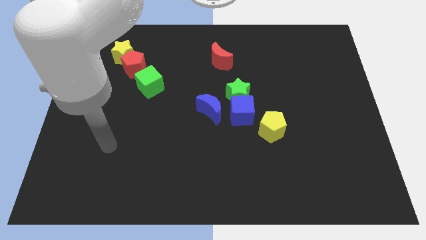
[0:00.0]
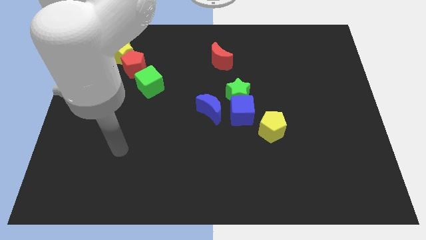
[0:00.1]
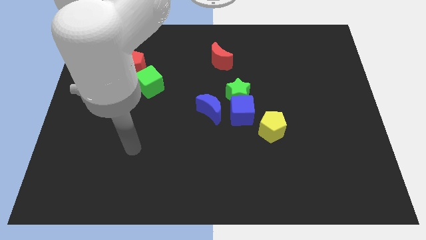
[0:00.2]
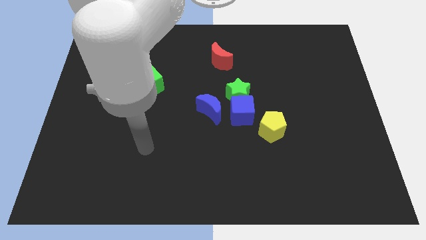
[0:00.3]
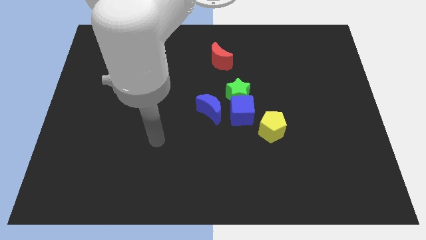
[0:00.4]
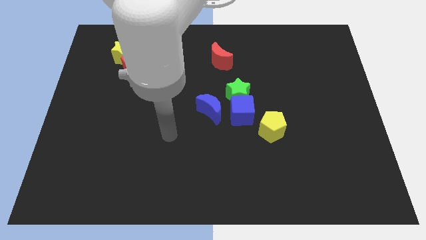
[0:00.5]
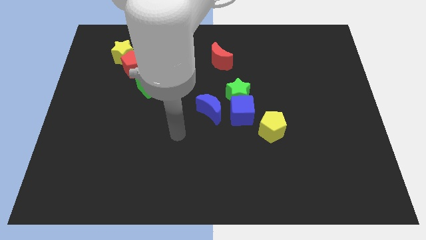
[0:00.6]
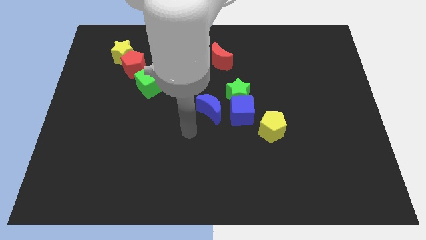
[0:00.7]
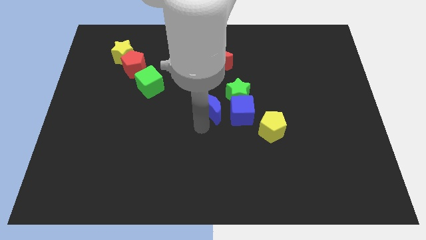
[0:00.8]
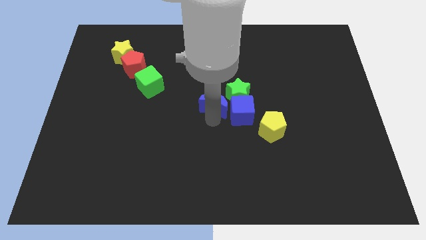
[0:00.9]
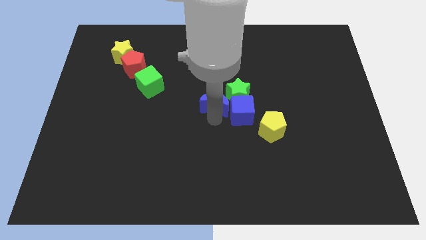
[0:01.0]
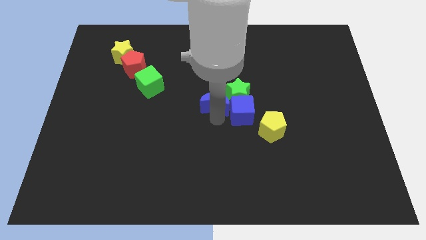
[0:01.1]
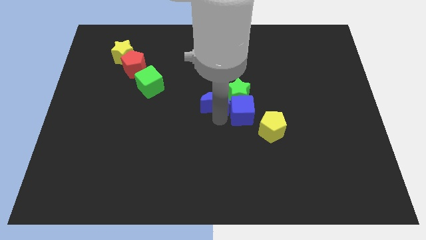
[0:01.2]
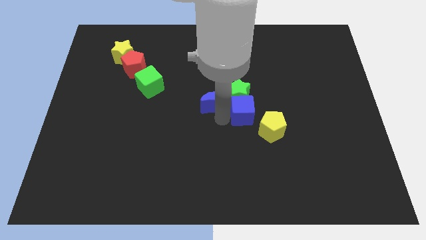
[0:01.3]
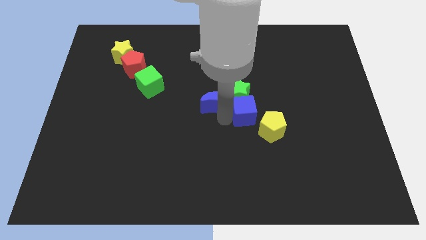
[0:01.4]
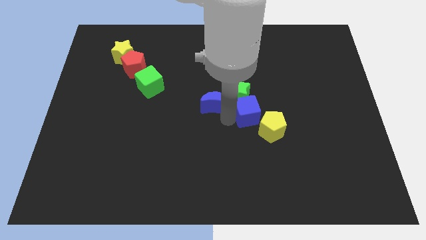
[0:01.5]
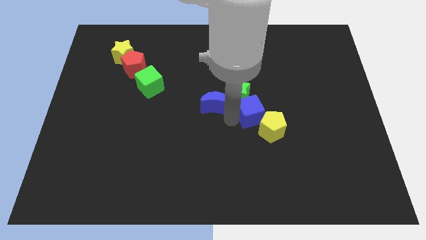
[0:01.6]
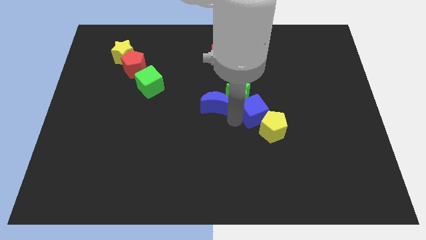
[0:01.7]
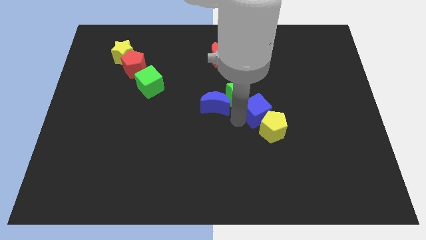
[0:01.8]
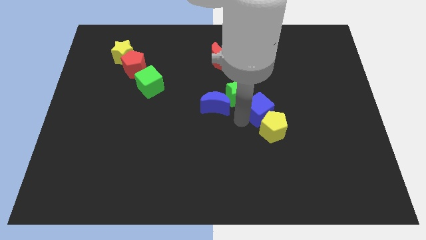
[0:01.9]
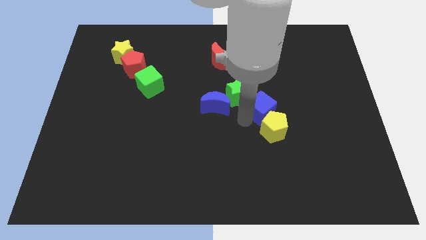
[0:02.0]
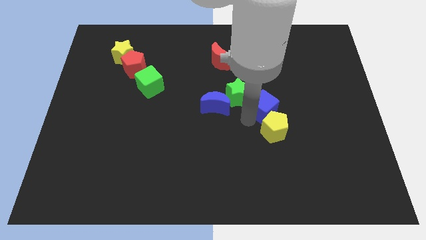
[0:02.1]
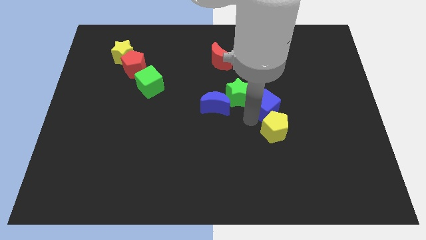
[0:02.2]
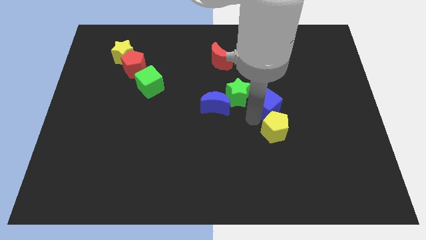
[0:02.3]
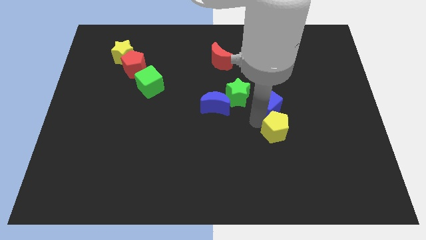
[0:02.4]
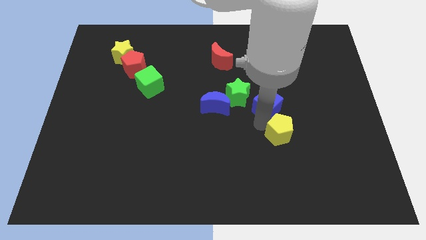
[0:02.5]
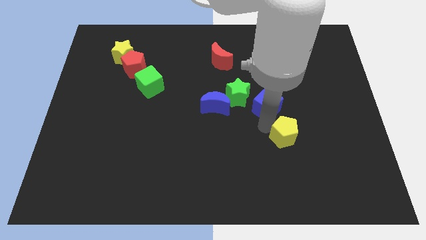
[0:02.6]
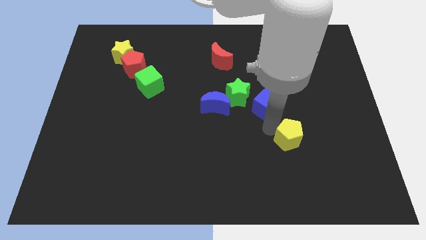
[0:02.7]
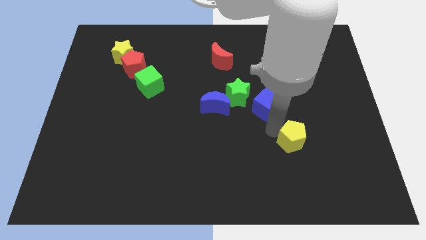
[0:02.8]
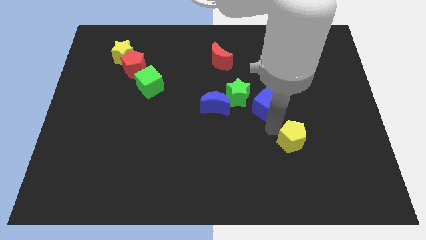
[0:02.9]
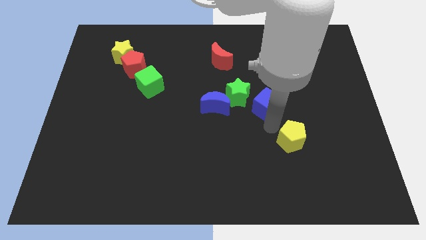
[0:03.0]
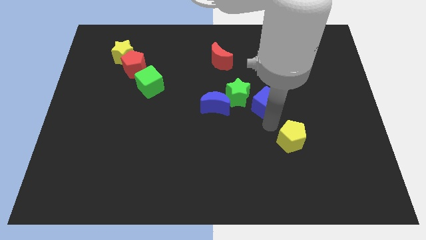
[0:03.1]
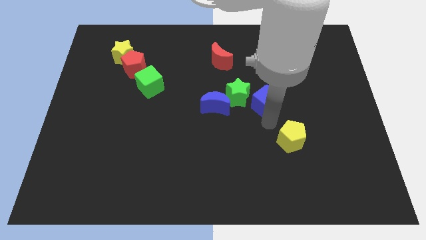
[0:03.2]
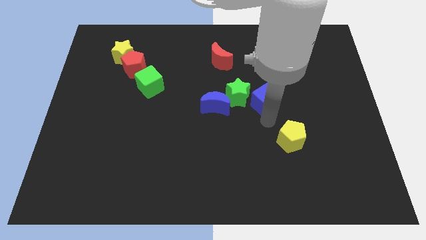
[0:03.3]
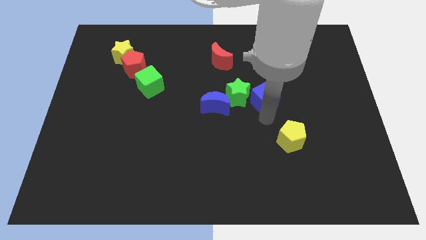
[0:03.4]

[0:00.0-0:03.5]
move the blue cube upwards and right diagonally a little

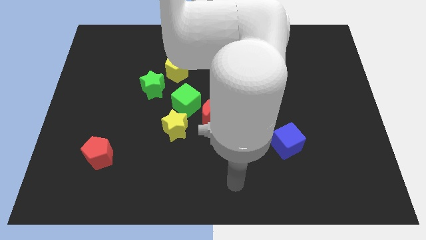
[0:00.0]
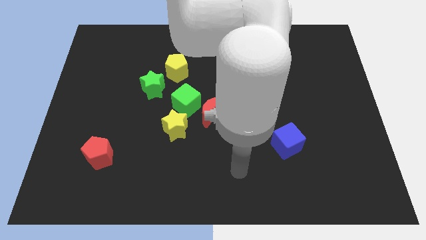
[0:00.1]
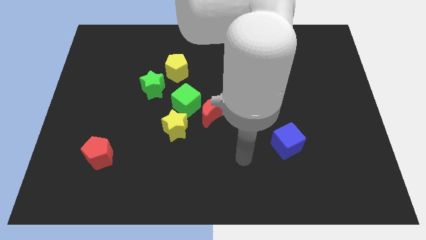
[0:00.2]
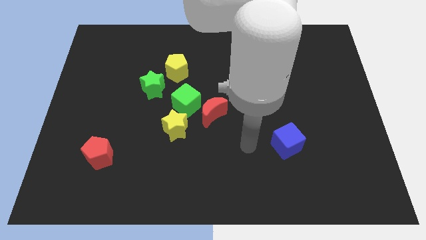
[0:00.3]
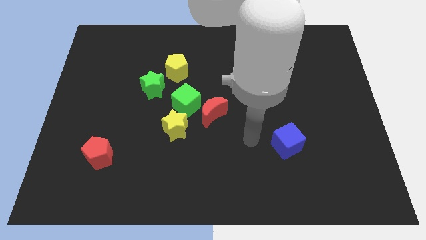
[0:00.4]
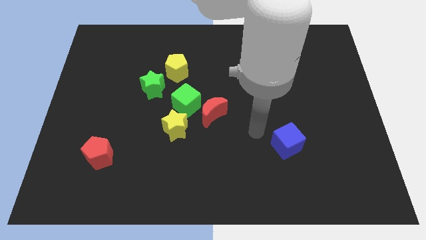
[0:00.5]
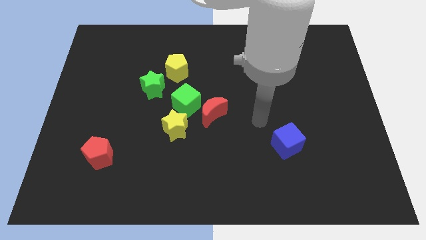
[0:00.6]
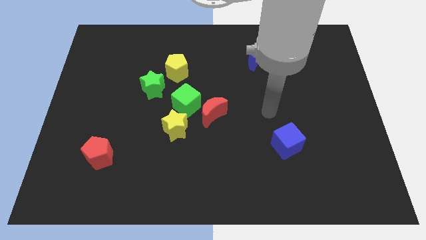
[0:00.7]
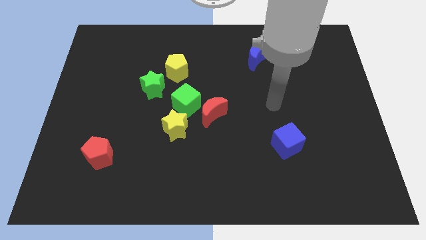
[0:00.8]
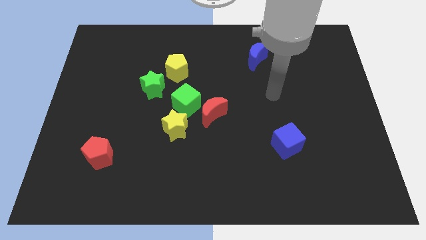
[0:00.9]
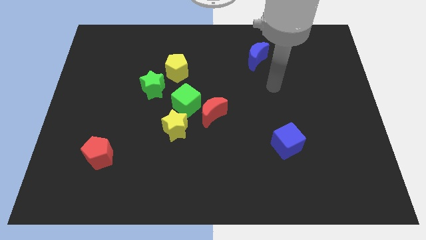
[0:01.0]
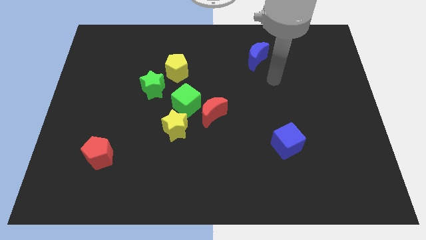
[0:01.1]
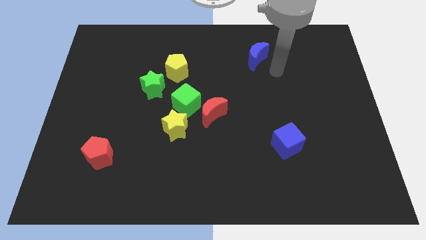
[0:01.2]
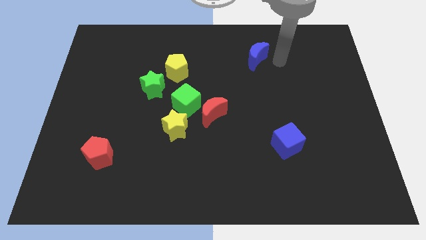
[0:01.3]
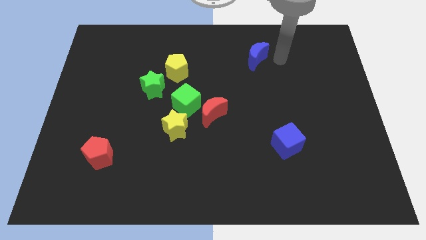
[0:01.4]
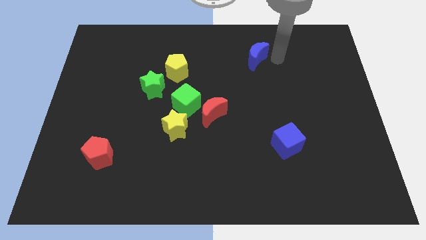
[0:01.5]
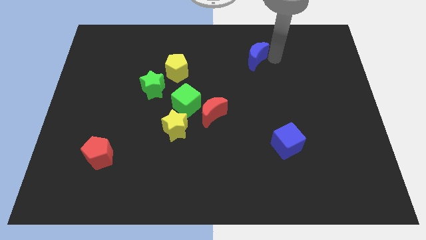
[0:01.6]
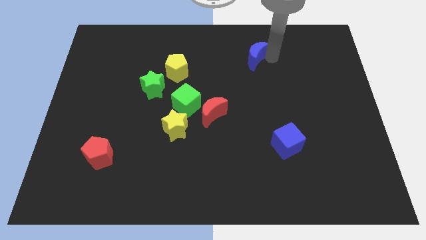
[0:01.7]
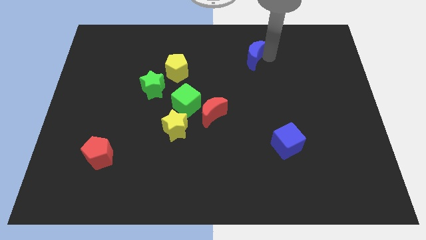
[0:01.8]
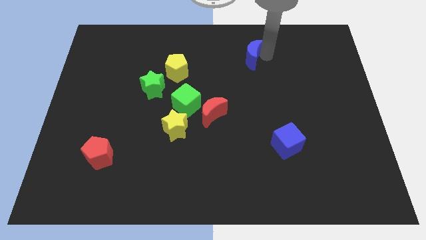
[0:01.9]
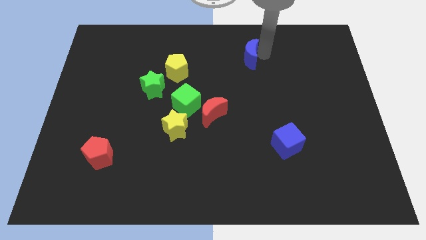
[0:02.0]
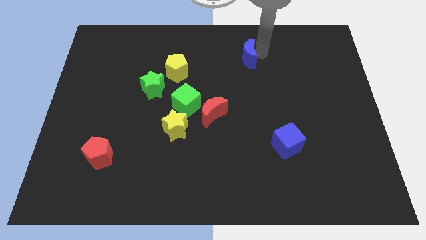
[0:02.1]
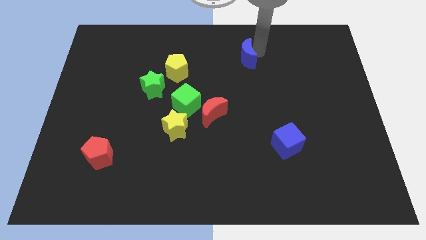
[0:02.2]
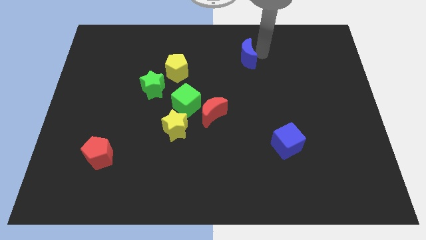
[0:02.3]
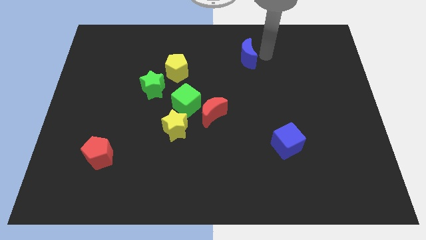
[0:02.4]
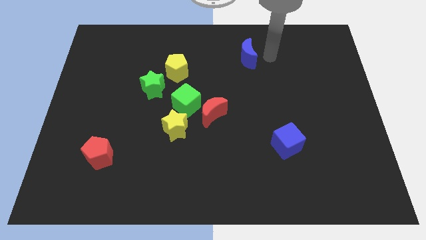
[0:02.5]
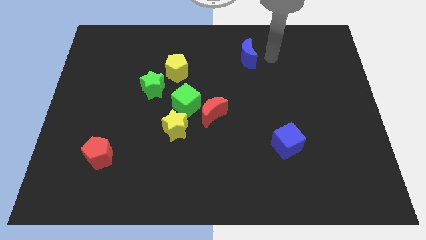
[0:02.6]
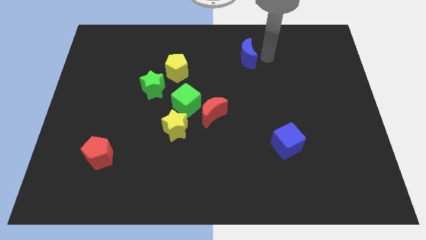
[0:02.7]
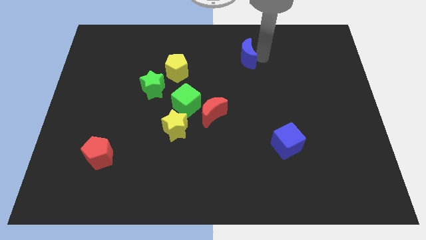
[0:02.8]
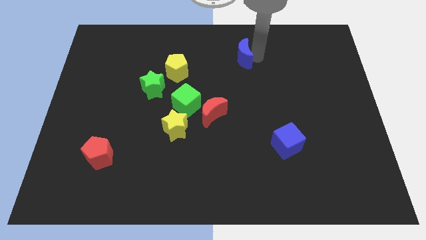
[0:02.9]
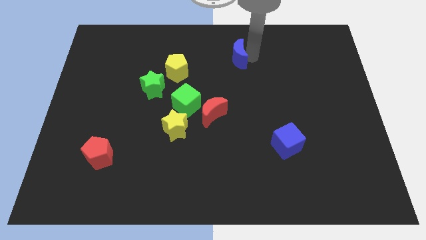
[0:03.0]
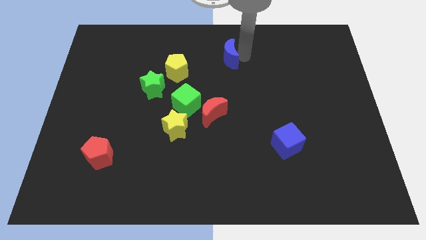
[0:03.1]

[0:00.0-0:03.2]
move the blue moon to the left a bit

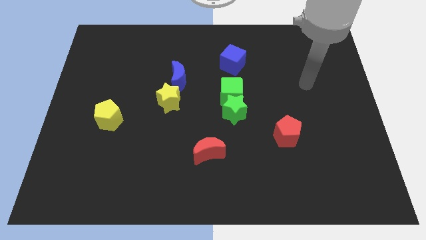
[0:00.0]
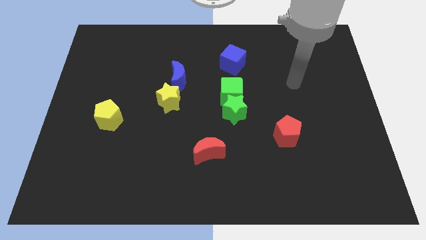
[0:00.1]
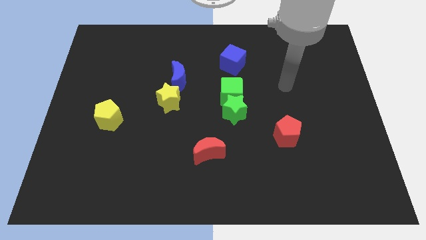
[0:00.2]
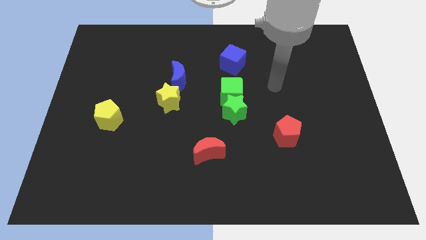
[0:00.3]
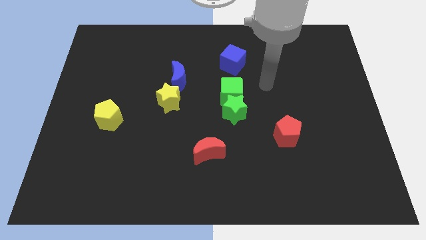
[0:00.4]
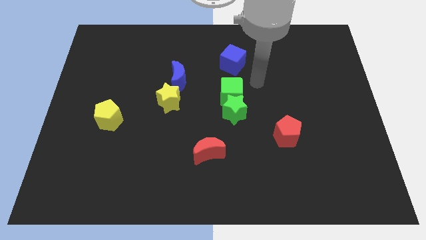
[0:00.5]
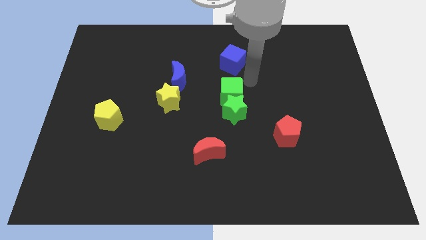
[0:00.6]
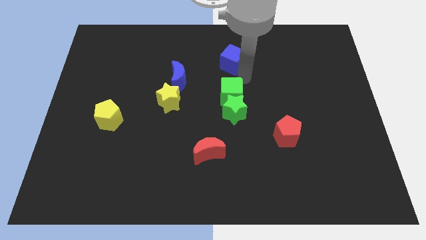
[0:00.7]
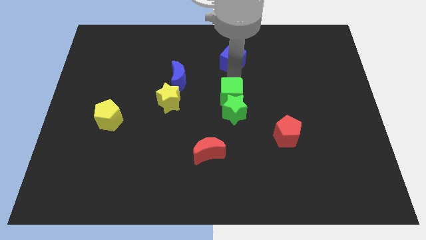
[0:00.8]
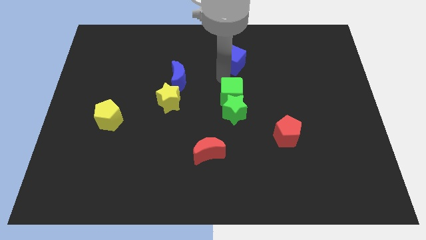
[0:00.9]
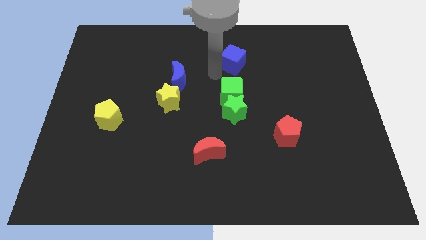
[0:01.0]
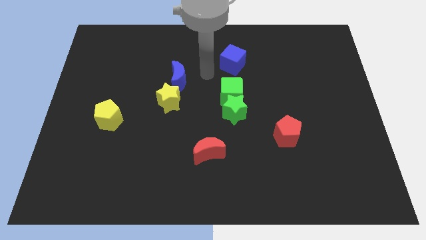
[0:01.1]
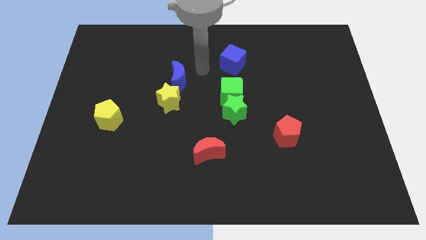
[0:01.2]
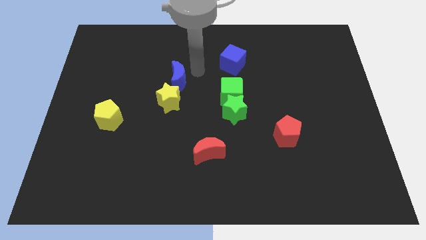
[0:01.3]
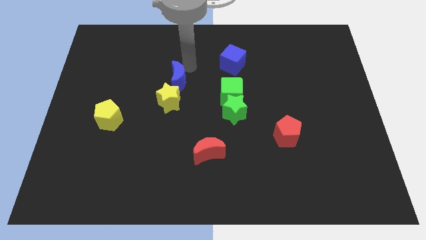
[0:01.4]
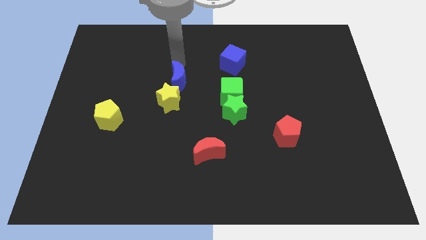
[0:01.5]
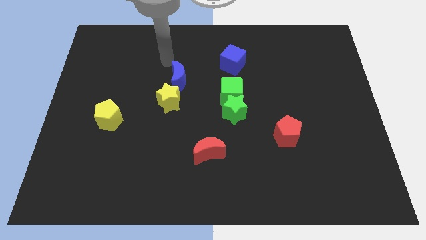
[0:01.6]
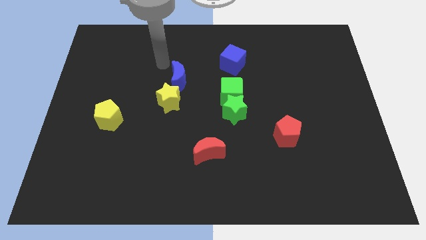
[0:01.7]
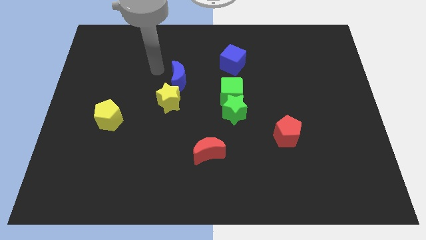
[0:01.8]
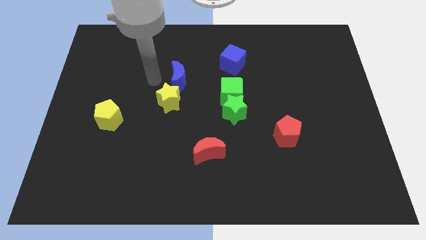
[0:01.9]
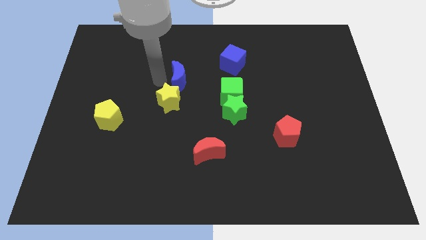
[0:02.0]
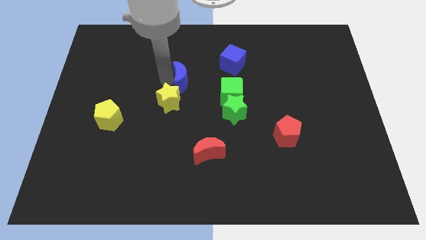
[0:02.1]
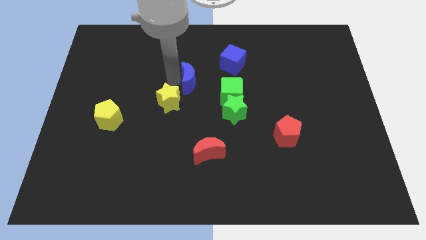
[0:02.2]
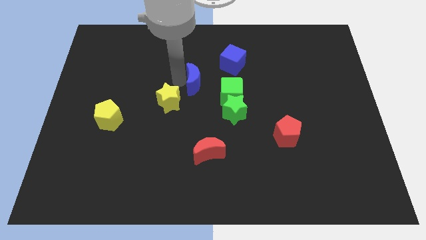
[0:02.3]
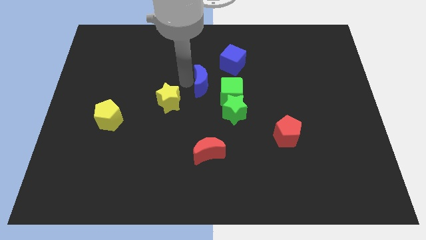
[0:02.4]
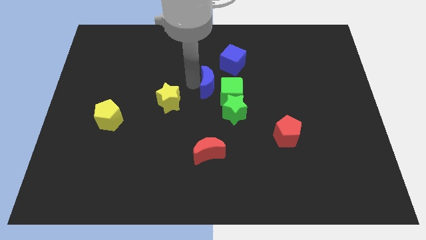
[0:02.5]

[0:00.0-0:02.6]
push the blue moon right a bit
